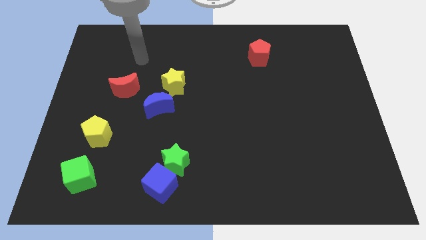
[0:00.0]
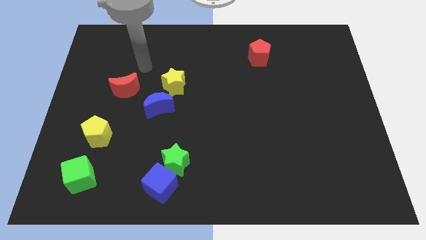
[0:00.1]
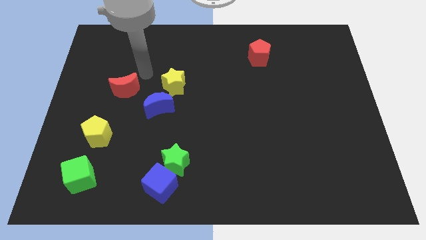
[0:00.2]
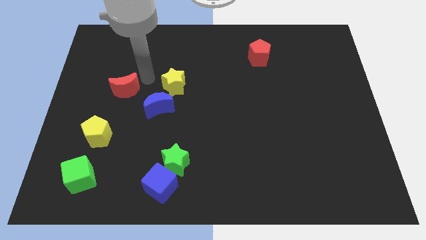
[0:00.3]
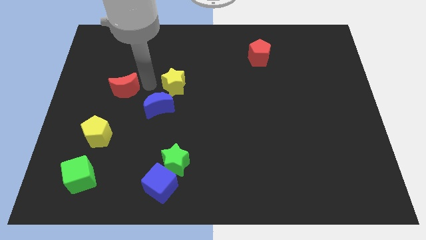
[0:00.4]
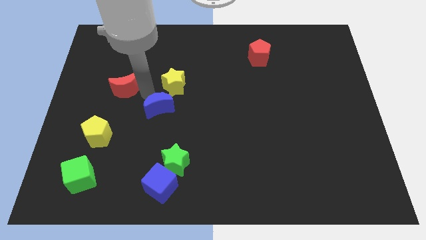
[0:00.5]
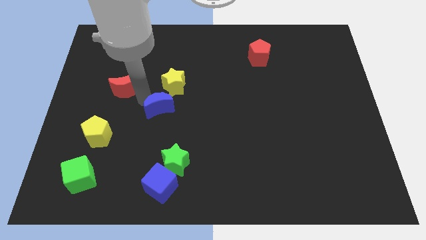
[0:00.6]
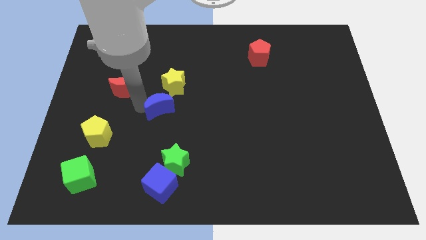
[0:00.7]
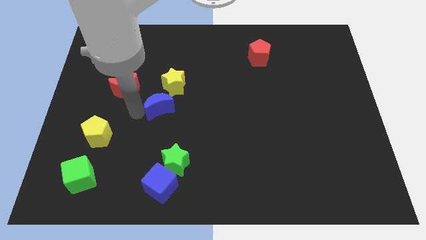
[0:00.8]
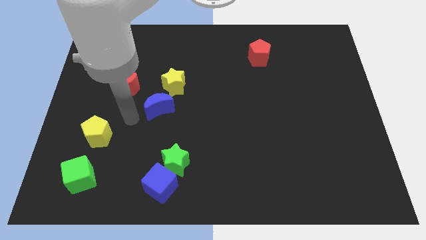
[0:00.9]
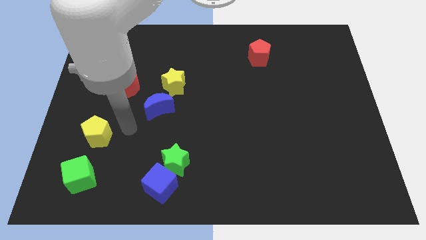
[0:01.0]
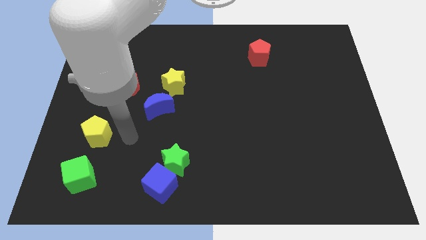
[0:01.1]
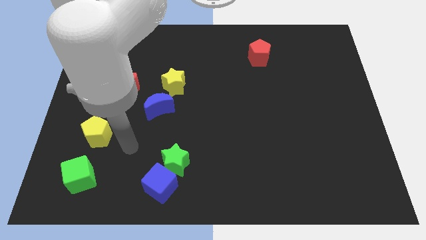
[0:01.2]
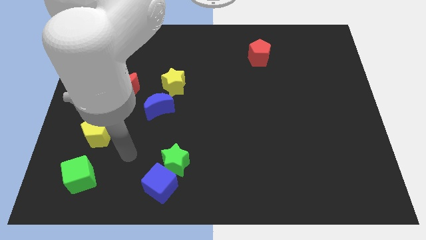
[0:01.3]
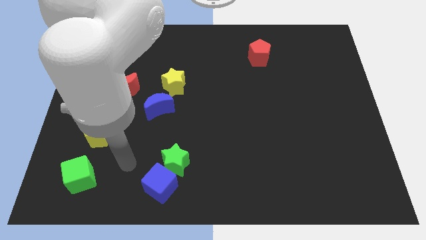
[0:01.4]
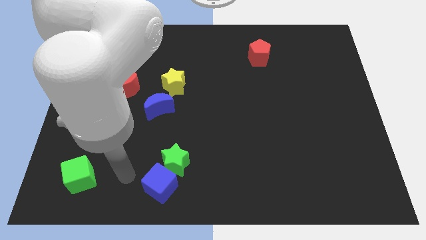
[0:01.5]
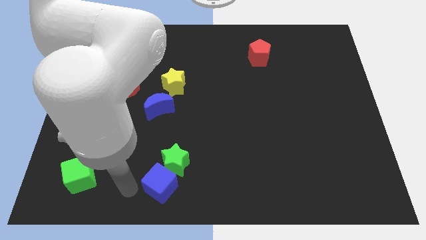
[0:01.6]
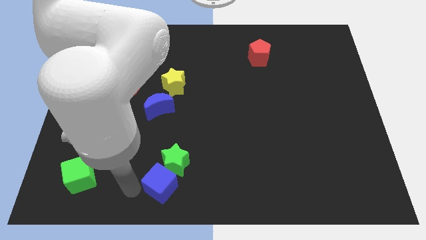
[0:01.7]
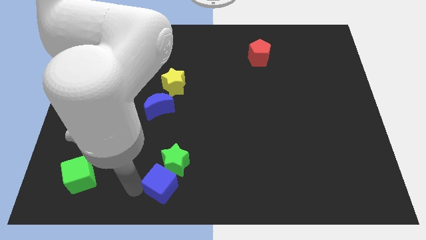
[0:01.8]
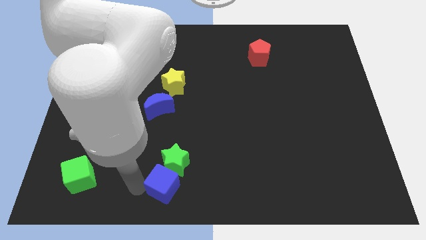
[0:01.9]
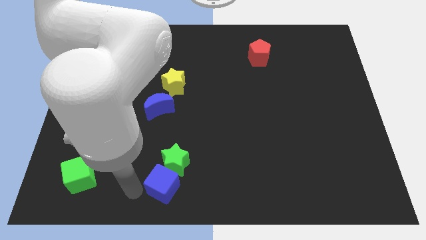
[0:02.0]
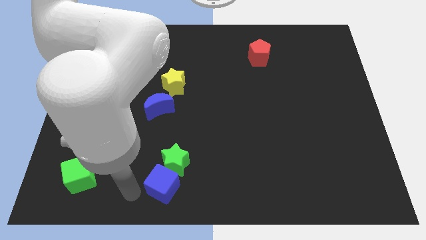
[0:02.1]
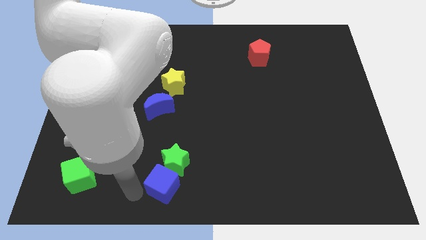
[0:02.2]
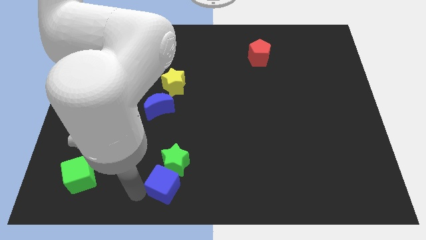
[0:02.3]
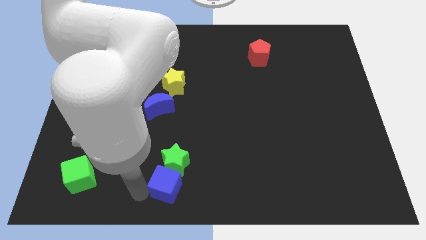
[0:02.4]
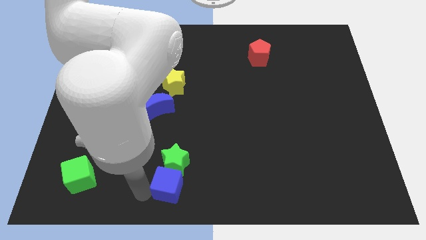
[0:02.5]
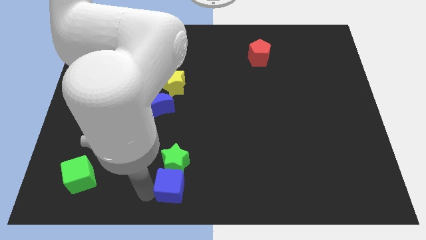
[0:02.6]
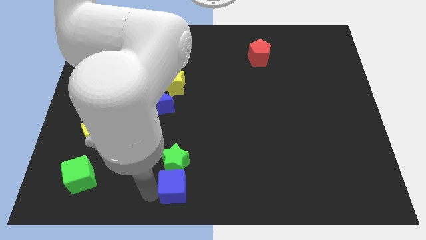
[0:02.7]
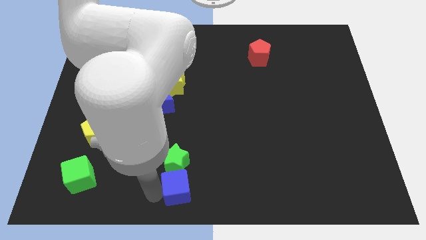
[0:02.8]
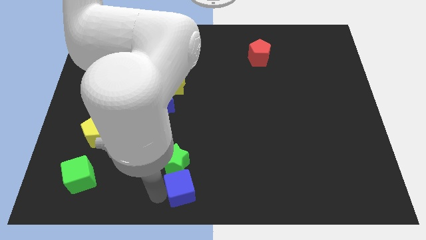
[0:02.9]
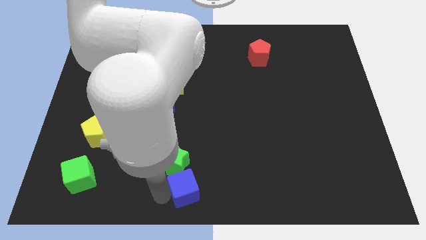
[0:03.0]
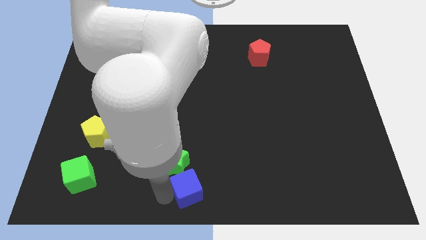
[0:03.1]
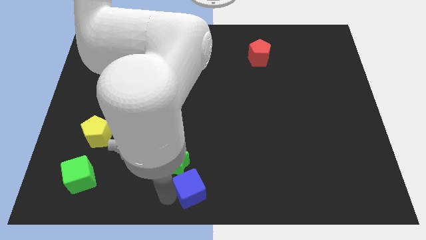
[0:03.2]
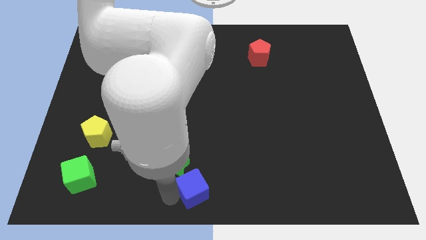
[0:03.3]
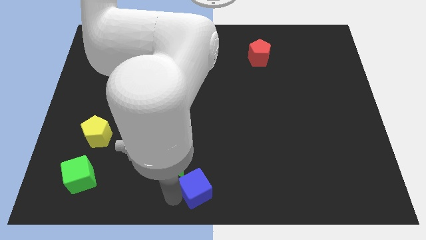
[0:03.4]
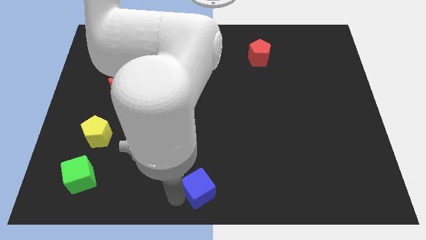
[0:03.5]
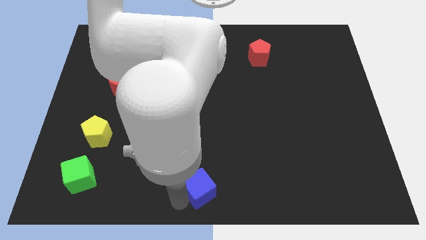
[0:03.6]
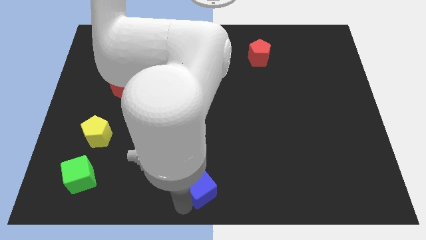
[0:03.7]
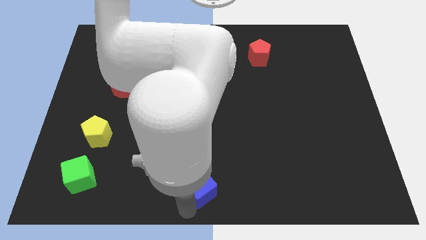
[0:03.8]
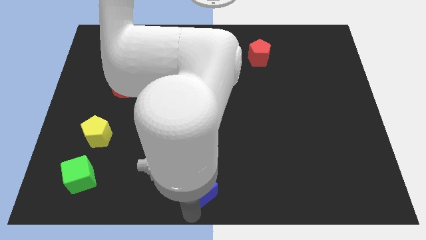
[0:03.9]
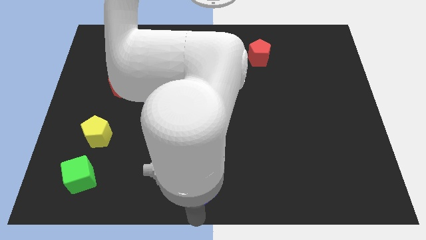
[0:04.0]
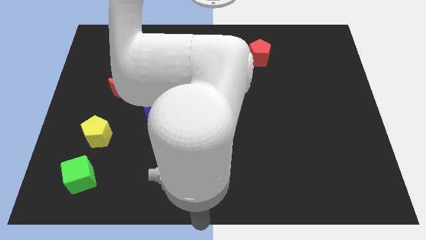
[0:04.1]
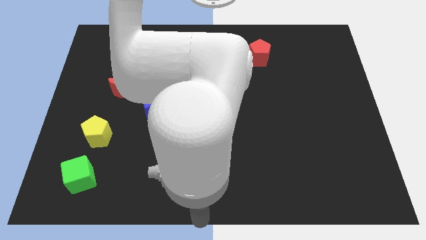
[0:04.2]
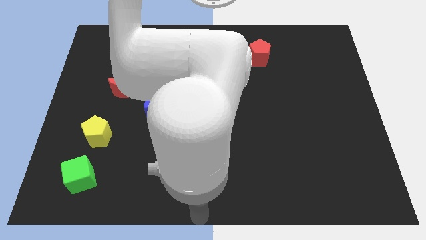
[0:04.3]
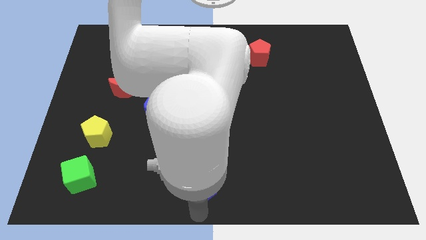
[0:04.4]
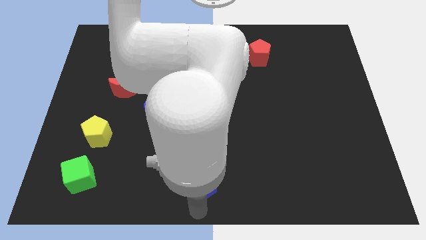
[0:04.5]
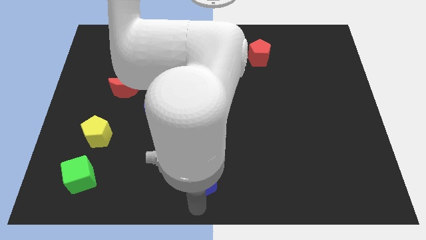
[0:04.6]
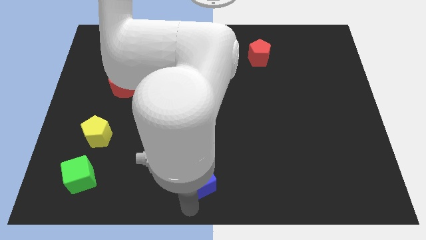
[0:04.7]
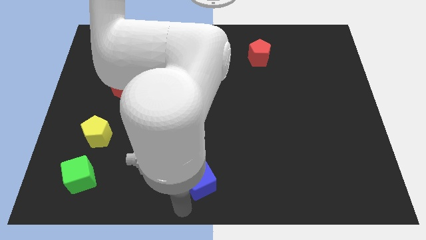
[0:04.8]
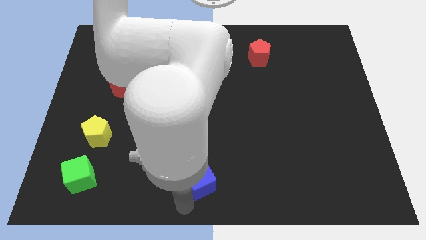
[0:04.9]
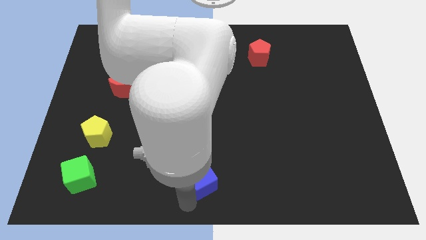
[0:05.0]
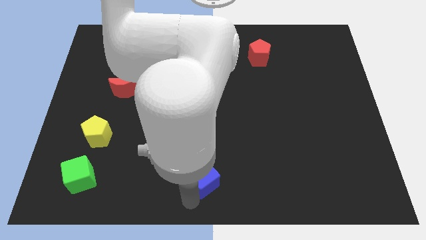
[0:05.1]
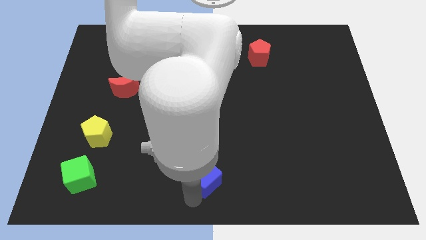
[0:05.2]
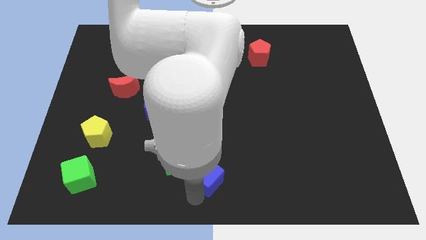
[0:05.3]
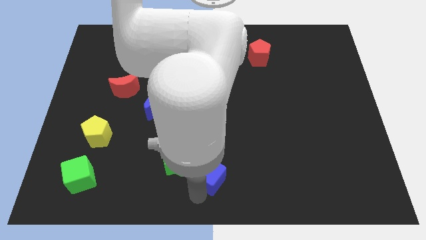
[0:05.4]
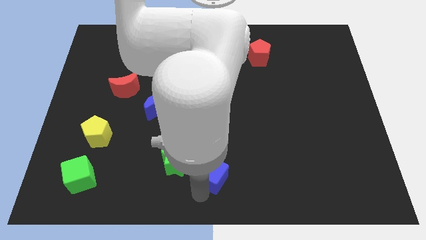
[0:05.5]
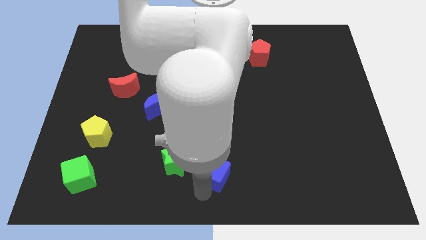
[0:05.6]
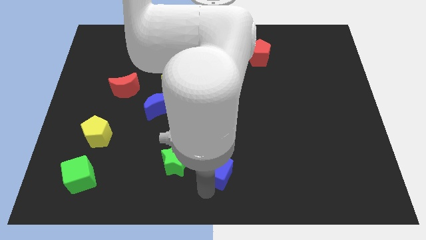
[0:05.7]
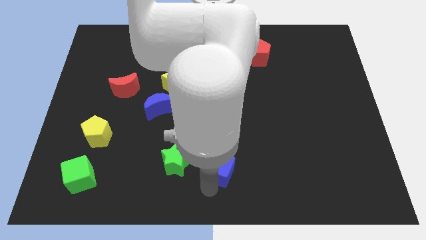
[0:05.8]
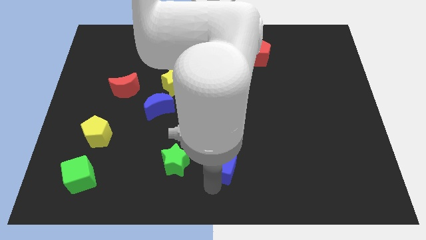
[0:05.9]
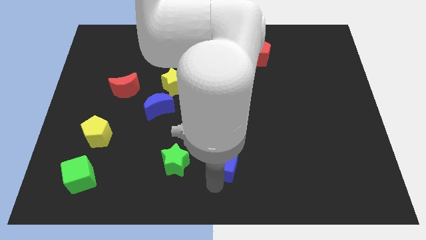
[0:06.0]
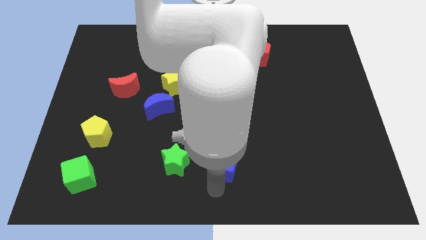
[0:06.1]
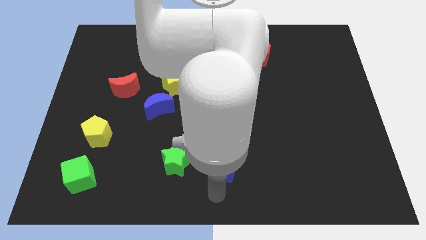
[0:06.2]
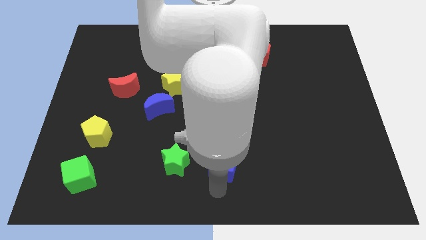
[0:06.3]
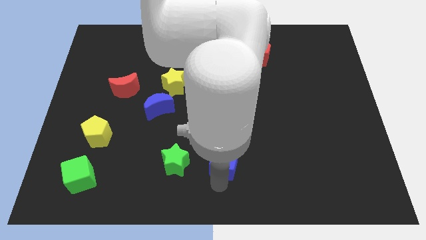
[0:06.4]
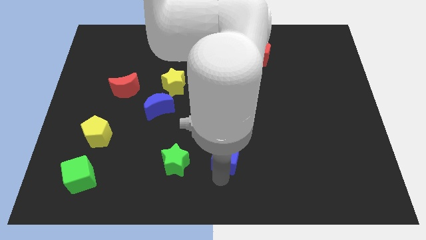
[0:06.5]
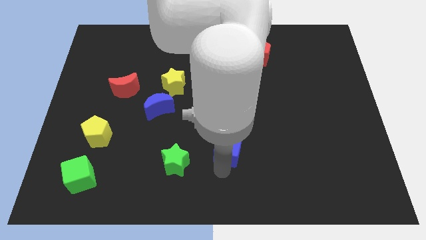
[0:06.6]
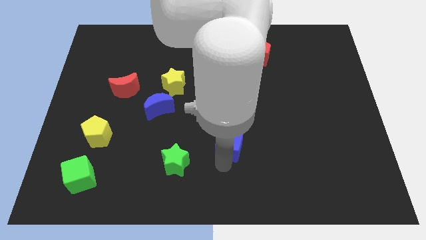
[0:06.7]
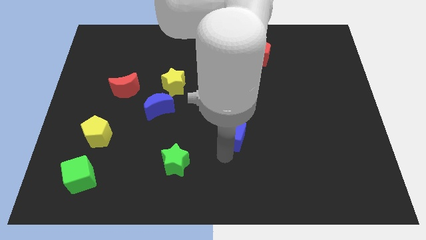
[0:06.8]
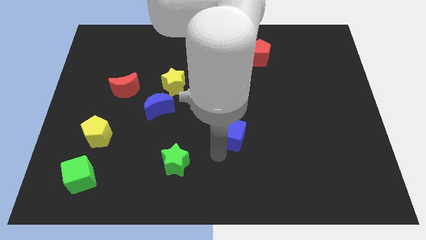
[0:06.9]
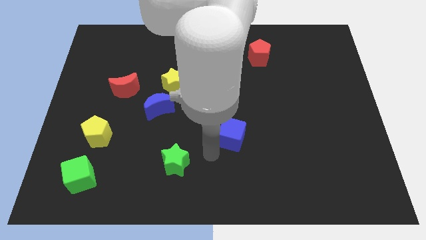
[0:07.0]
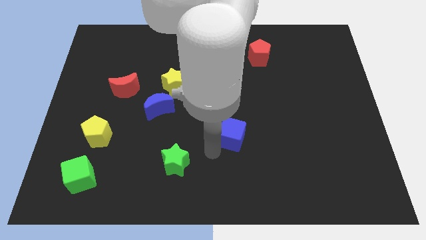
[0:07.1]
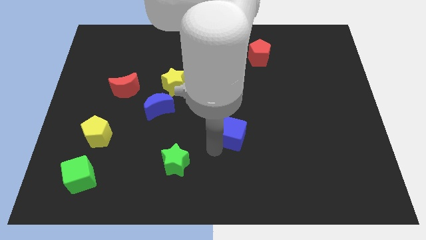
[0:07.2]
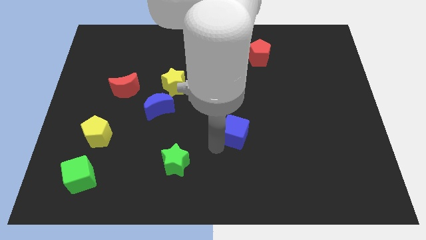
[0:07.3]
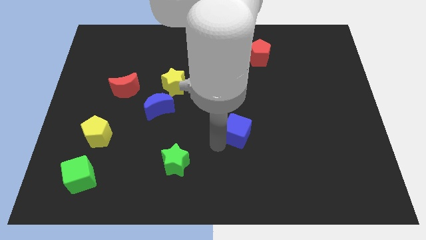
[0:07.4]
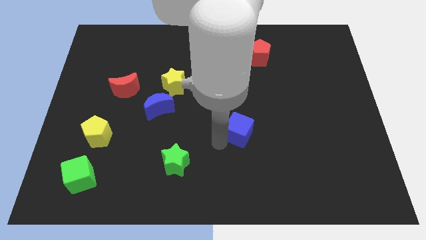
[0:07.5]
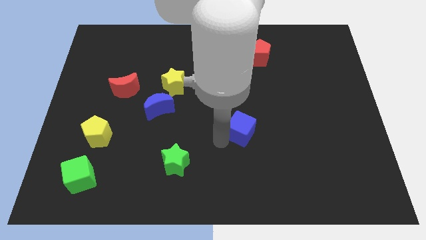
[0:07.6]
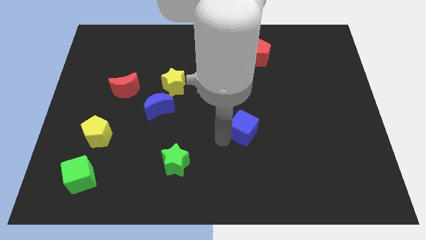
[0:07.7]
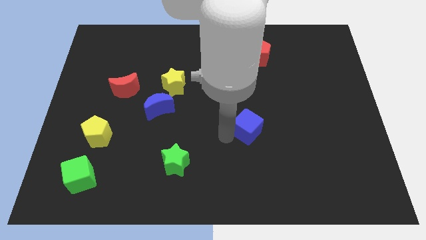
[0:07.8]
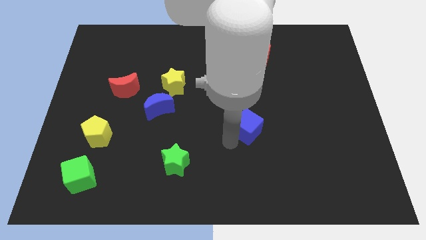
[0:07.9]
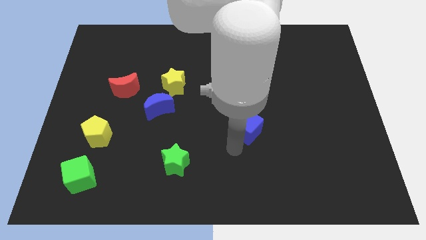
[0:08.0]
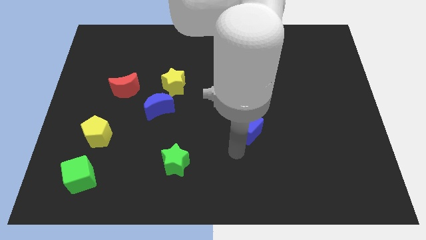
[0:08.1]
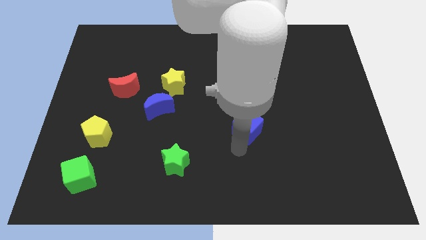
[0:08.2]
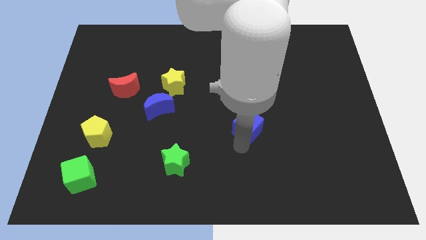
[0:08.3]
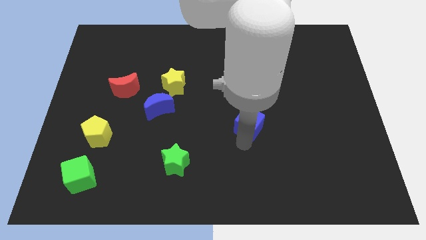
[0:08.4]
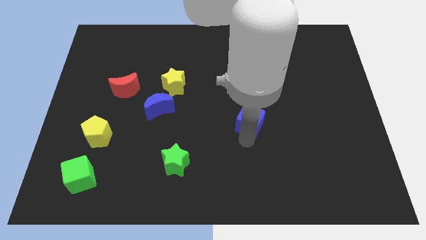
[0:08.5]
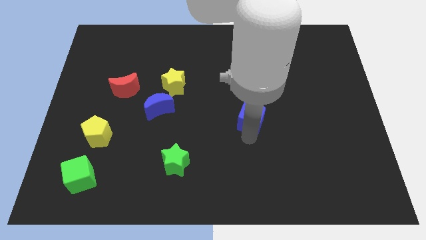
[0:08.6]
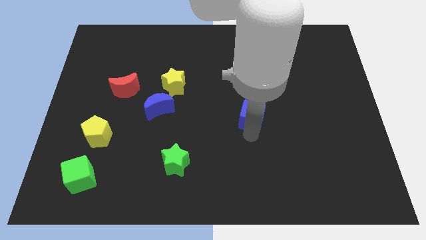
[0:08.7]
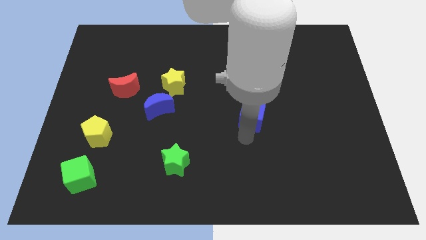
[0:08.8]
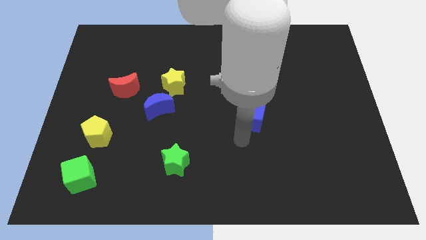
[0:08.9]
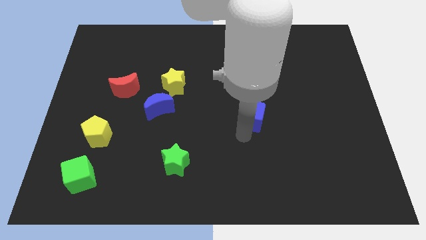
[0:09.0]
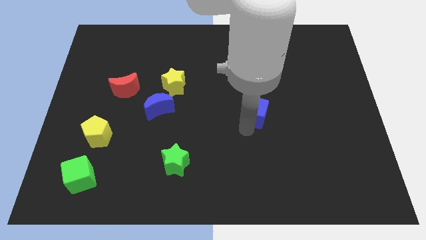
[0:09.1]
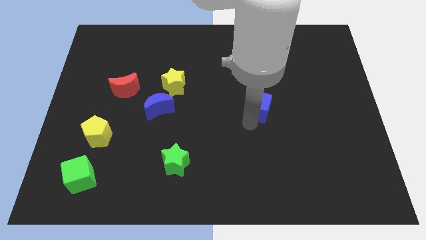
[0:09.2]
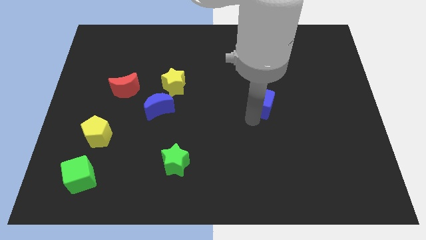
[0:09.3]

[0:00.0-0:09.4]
push the blue cube below the red pentagon
